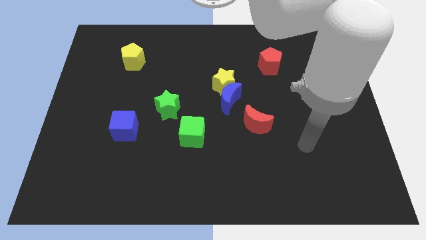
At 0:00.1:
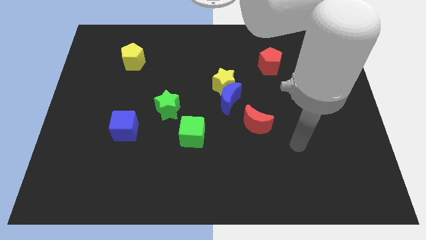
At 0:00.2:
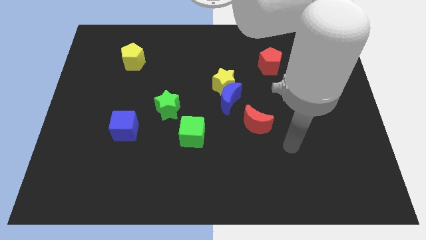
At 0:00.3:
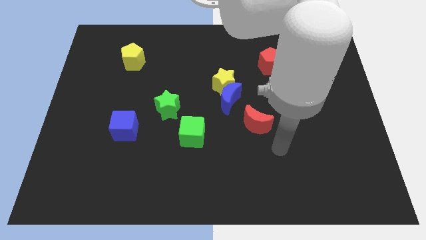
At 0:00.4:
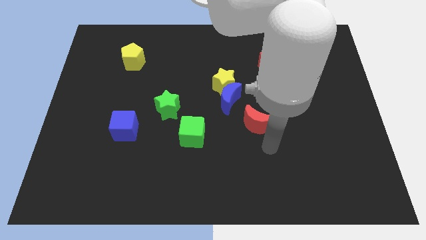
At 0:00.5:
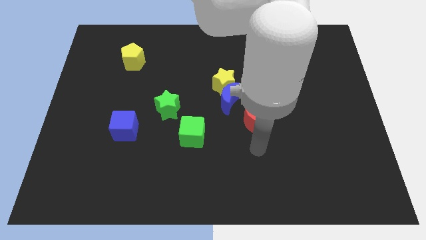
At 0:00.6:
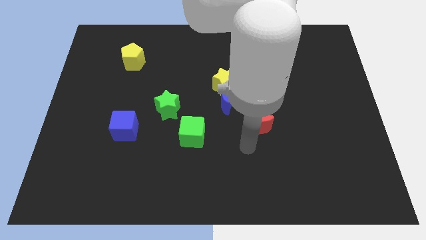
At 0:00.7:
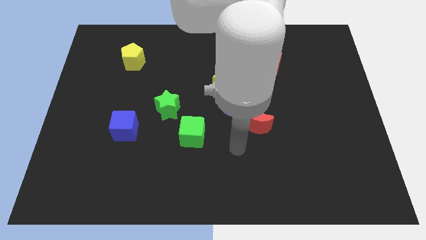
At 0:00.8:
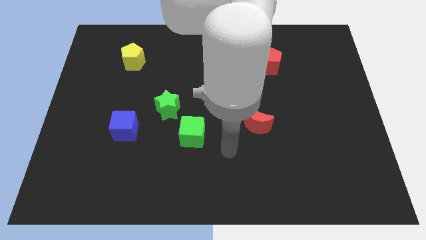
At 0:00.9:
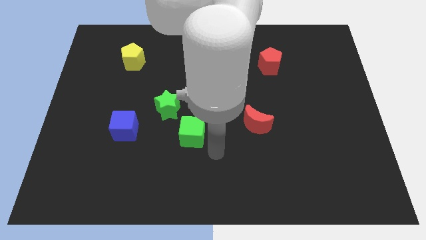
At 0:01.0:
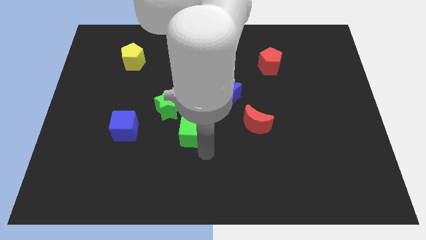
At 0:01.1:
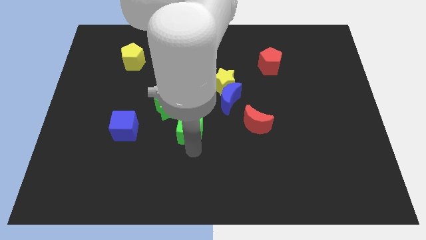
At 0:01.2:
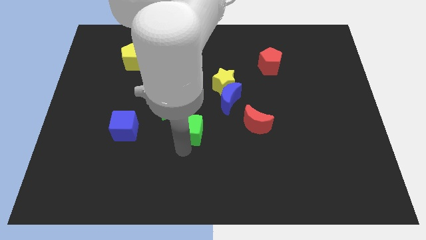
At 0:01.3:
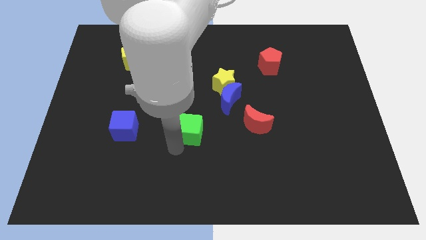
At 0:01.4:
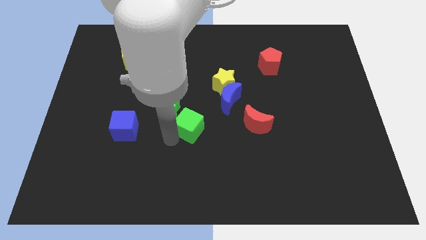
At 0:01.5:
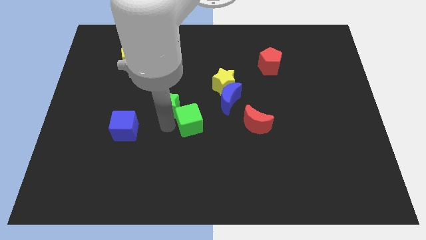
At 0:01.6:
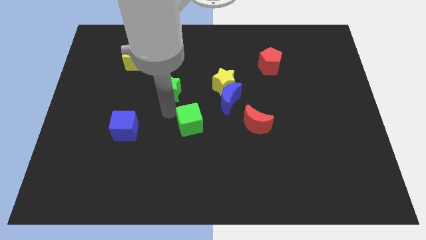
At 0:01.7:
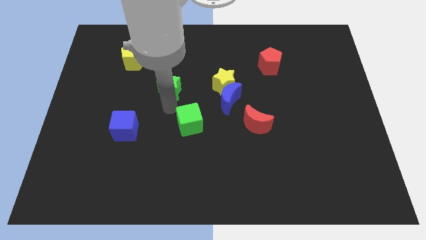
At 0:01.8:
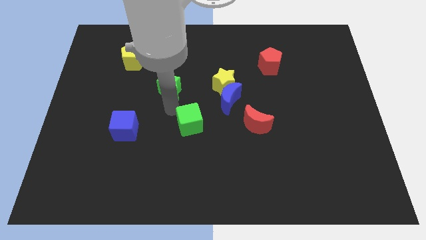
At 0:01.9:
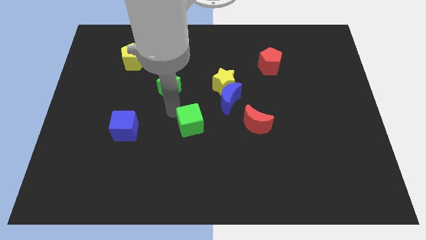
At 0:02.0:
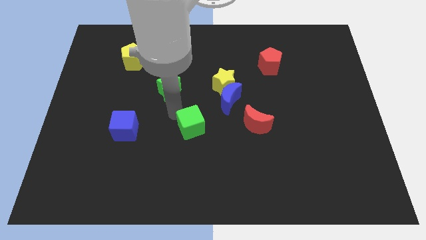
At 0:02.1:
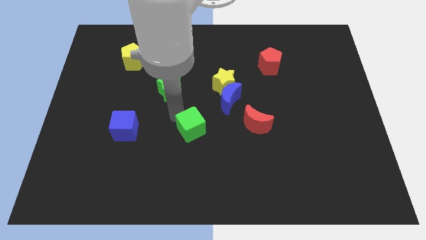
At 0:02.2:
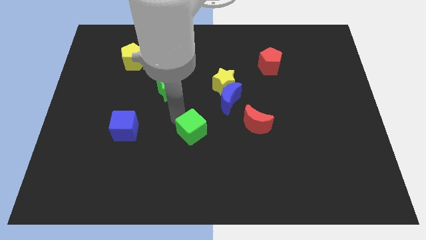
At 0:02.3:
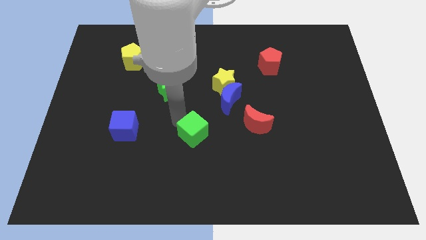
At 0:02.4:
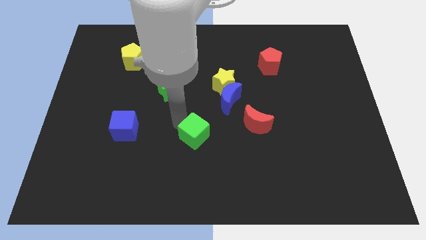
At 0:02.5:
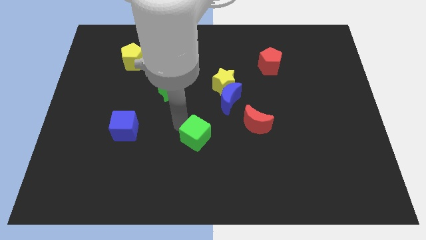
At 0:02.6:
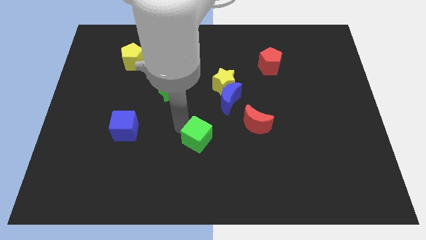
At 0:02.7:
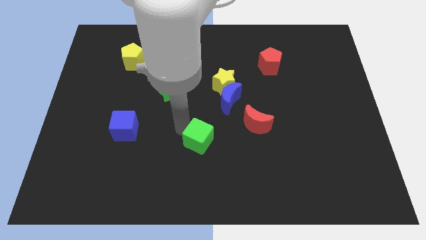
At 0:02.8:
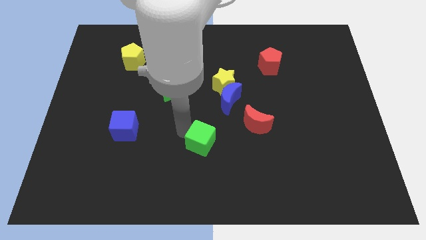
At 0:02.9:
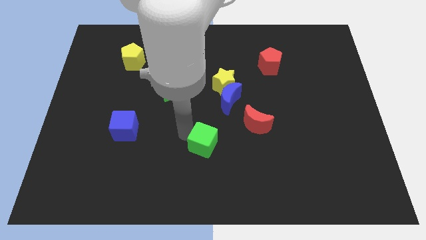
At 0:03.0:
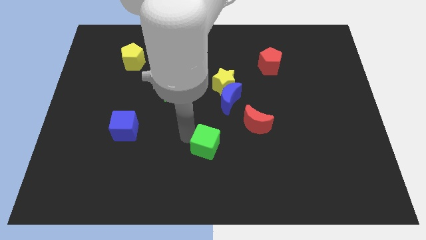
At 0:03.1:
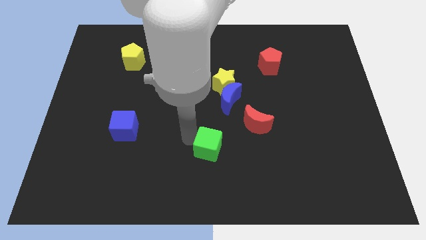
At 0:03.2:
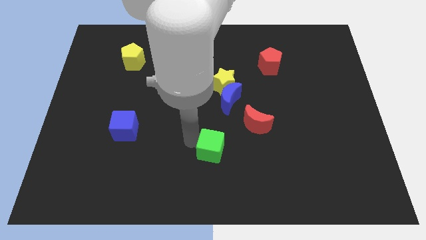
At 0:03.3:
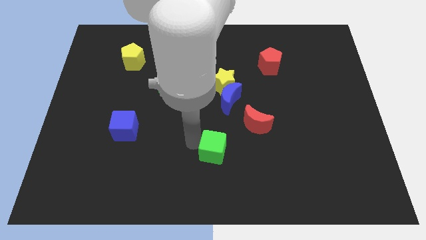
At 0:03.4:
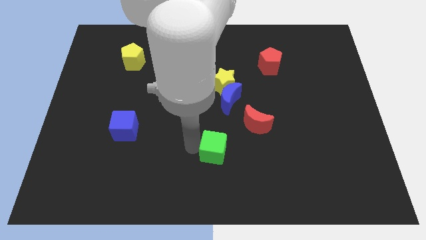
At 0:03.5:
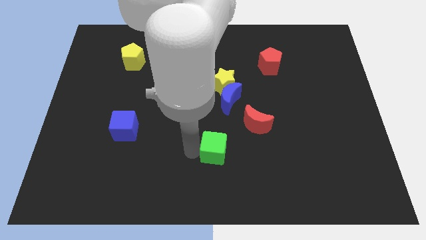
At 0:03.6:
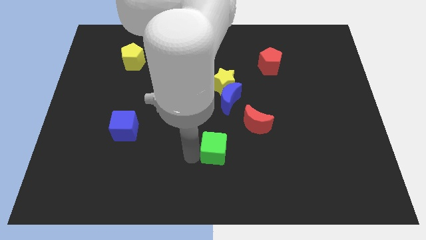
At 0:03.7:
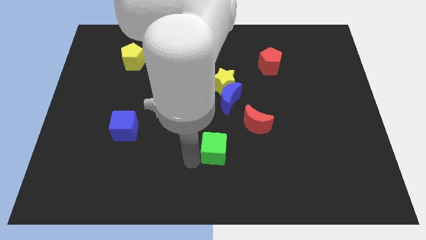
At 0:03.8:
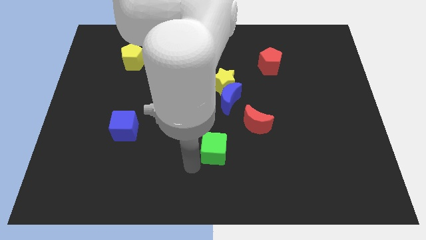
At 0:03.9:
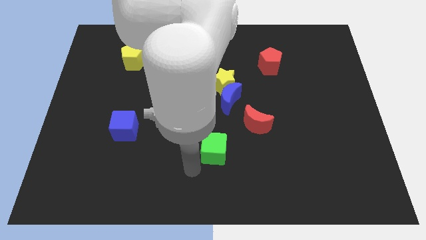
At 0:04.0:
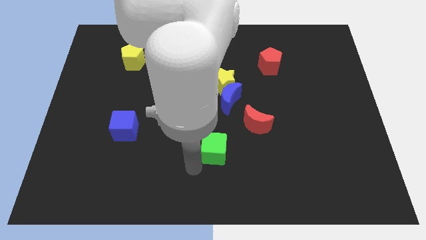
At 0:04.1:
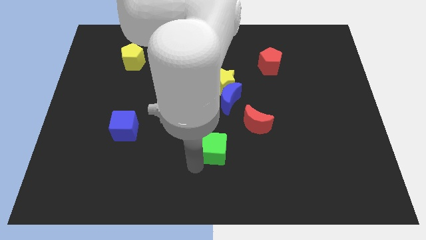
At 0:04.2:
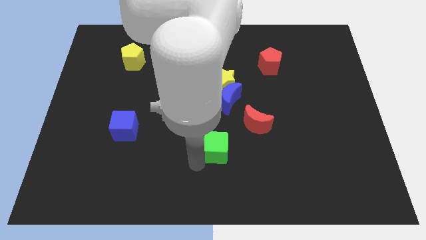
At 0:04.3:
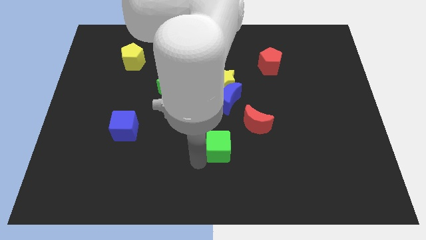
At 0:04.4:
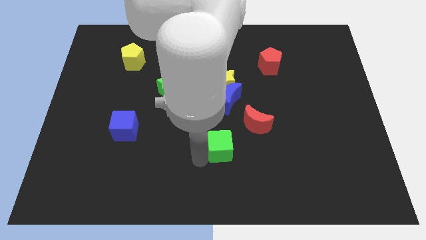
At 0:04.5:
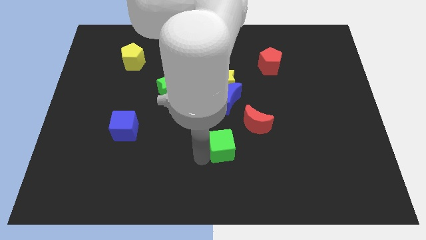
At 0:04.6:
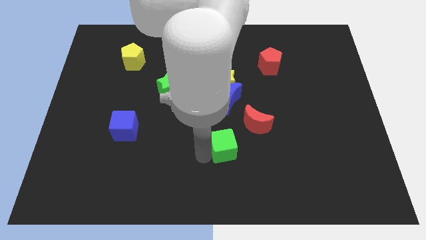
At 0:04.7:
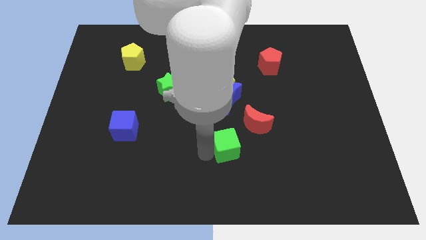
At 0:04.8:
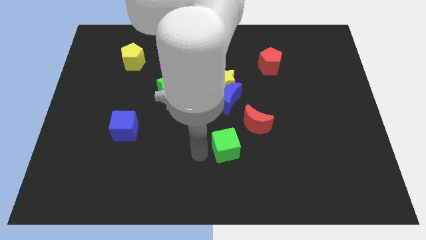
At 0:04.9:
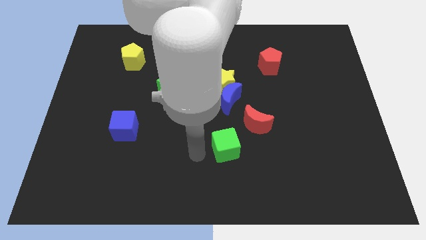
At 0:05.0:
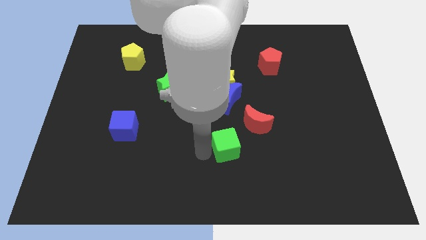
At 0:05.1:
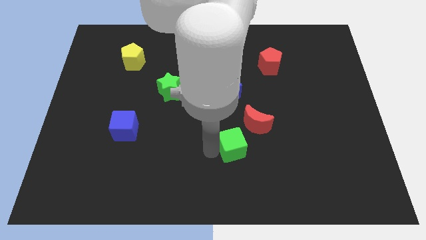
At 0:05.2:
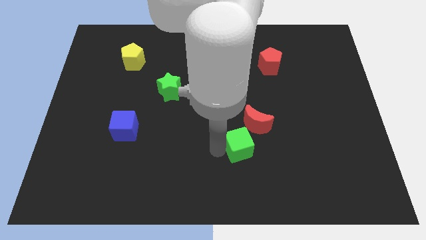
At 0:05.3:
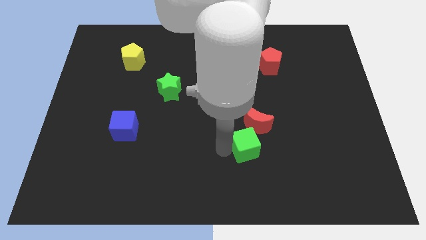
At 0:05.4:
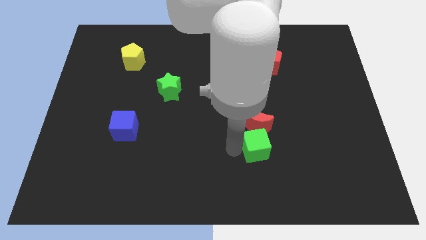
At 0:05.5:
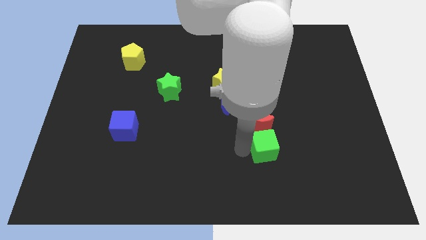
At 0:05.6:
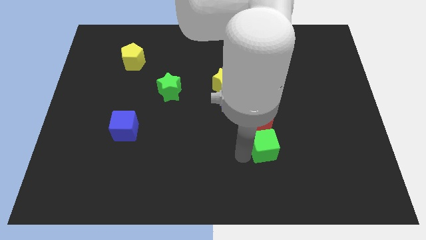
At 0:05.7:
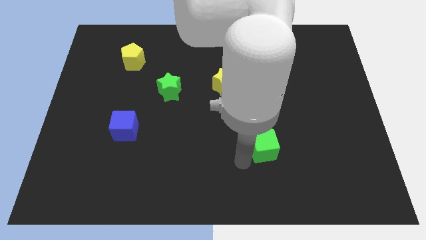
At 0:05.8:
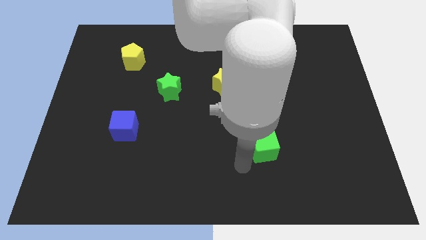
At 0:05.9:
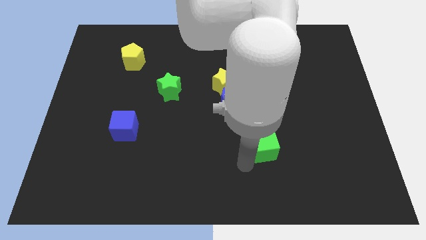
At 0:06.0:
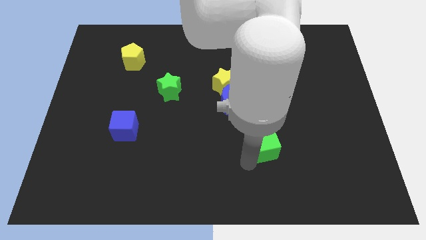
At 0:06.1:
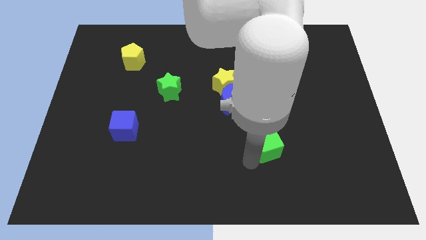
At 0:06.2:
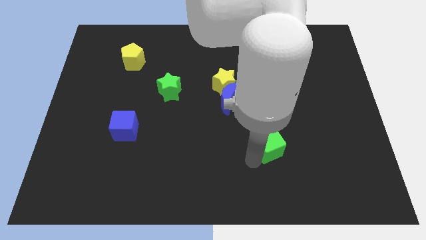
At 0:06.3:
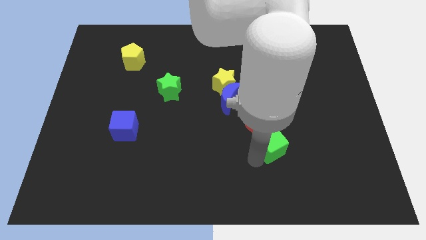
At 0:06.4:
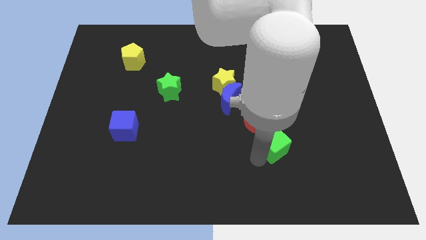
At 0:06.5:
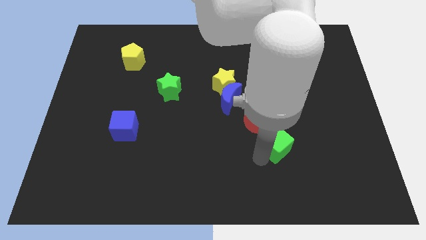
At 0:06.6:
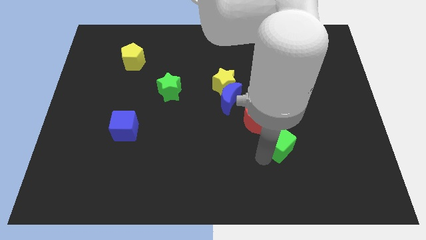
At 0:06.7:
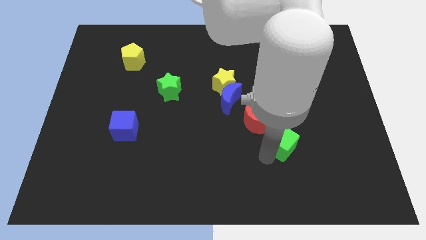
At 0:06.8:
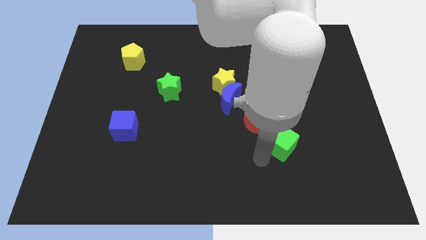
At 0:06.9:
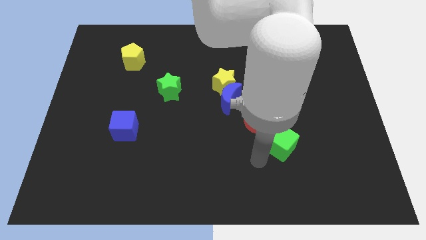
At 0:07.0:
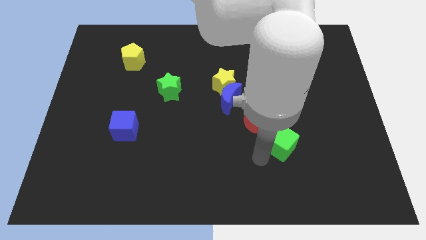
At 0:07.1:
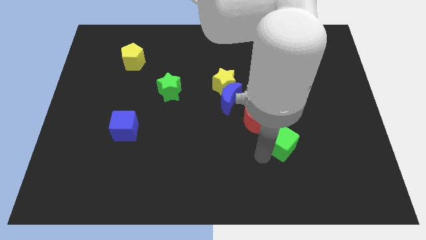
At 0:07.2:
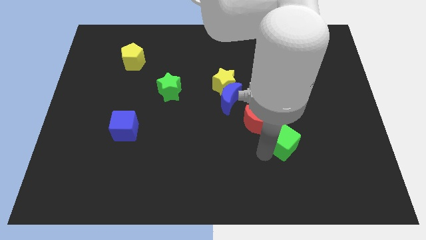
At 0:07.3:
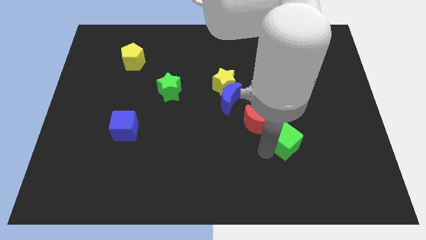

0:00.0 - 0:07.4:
slide the green cube to the right

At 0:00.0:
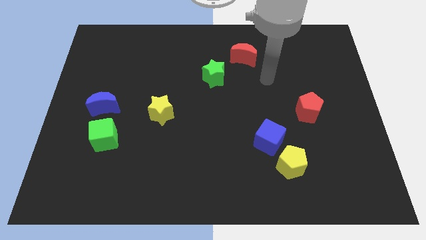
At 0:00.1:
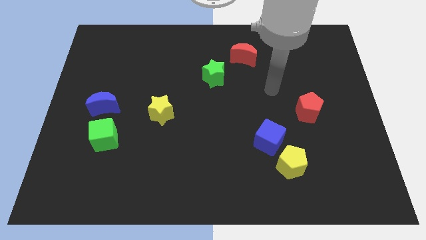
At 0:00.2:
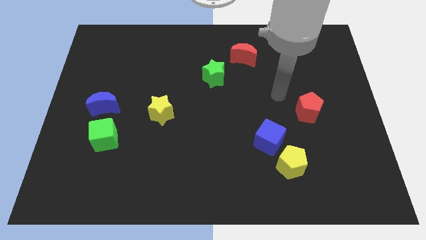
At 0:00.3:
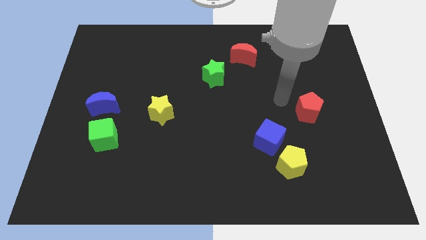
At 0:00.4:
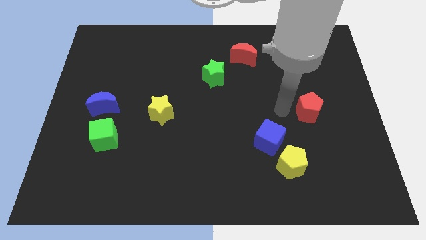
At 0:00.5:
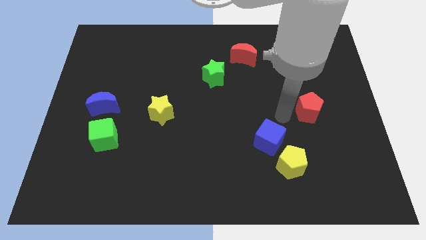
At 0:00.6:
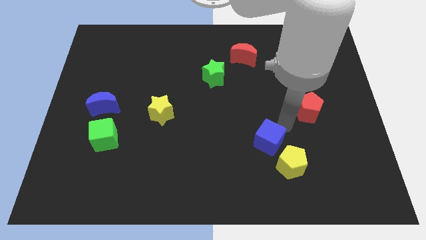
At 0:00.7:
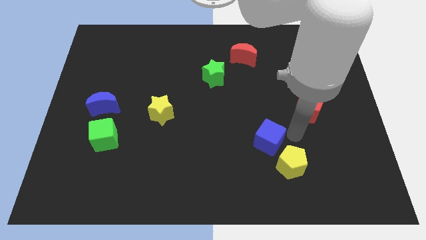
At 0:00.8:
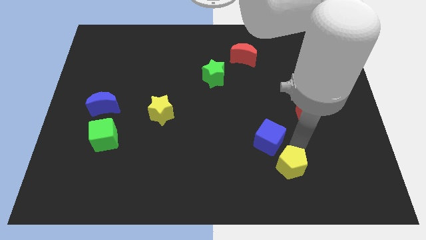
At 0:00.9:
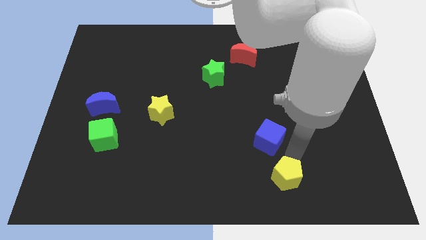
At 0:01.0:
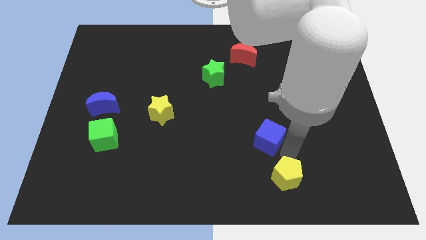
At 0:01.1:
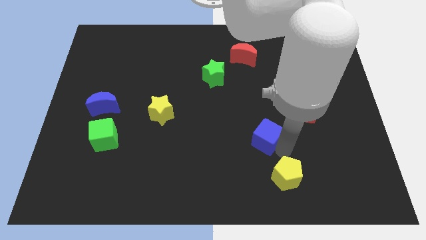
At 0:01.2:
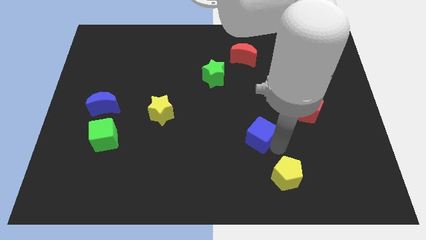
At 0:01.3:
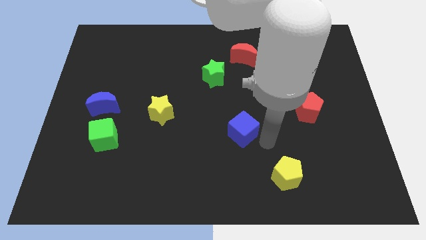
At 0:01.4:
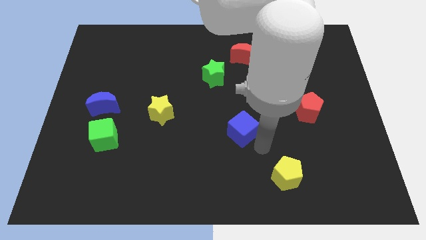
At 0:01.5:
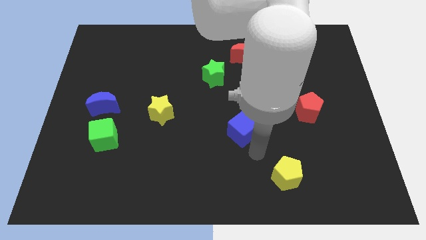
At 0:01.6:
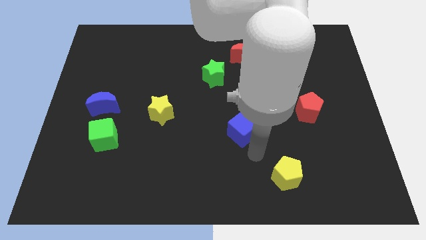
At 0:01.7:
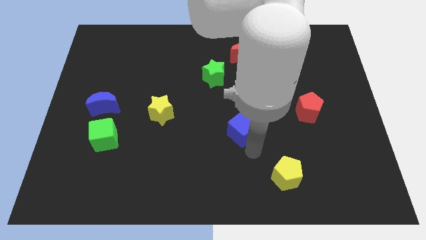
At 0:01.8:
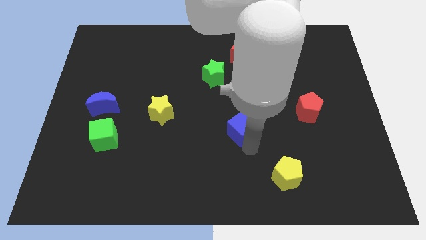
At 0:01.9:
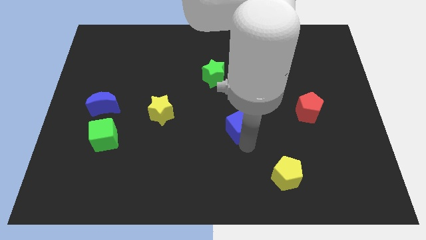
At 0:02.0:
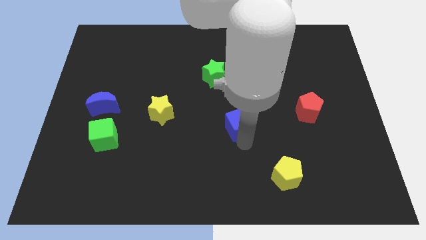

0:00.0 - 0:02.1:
move the blue cube slightly up and to the left
